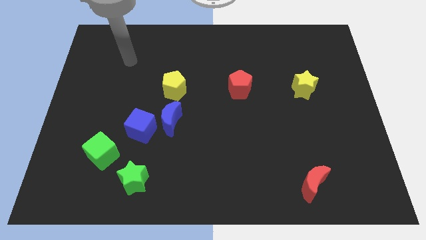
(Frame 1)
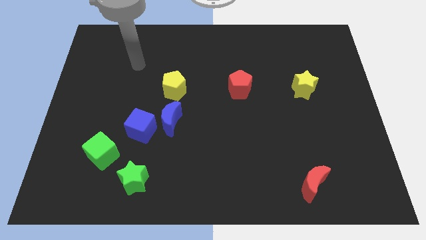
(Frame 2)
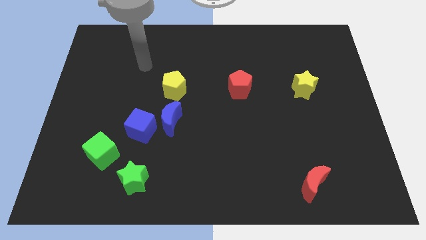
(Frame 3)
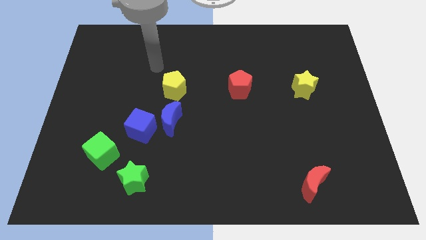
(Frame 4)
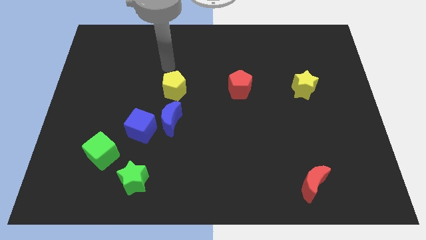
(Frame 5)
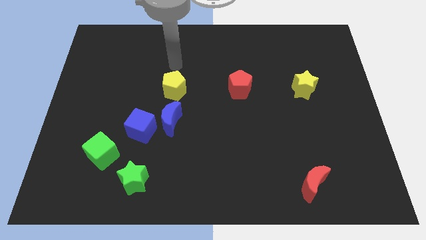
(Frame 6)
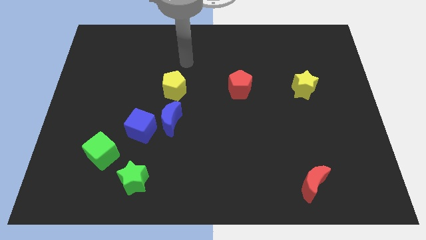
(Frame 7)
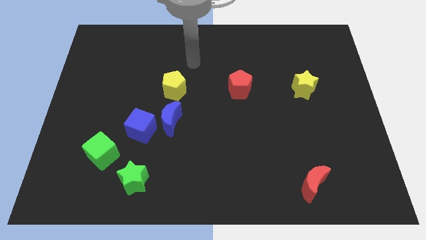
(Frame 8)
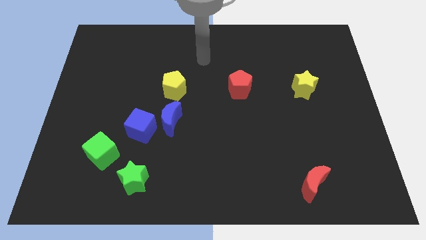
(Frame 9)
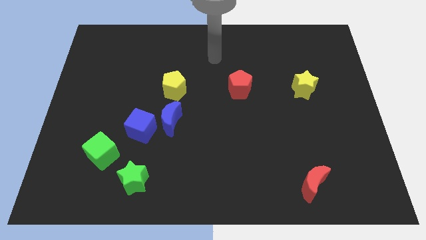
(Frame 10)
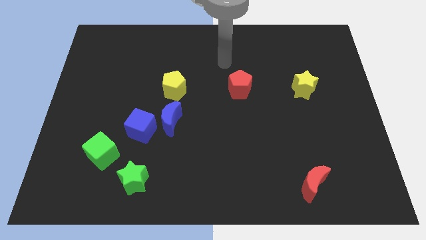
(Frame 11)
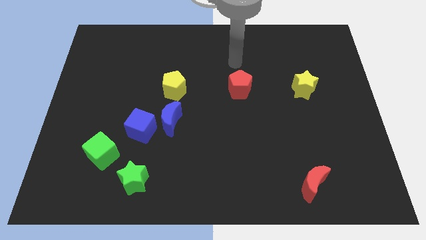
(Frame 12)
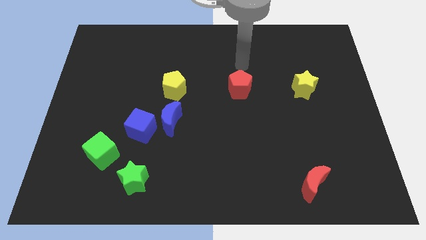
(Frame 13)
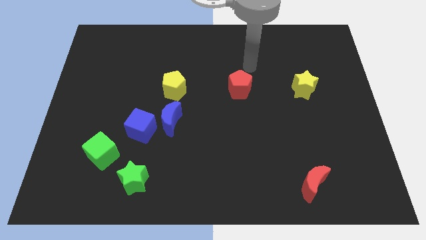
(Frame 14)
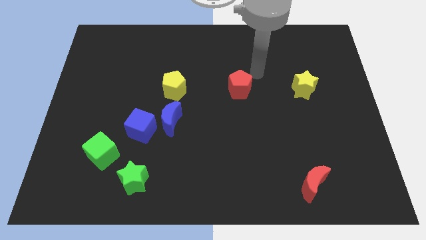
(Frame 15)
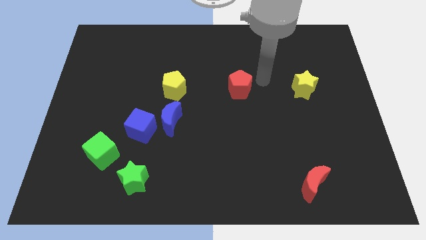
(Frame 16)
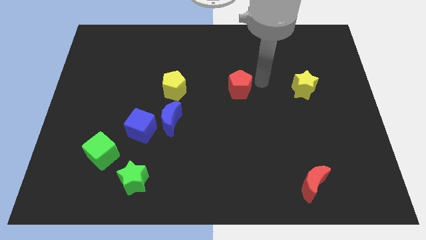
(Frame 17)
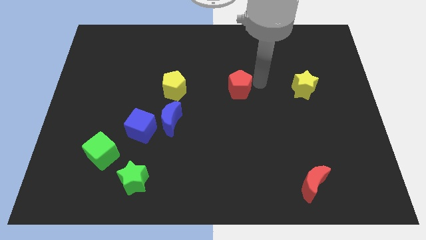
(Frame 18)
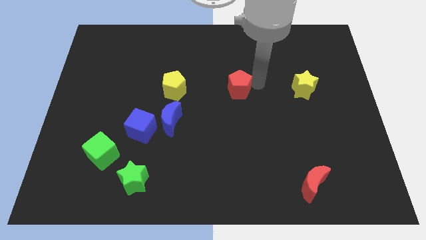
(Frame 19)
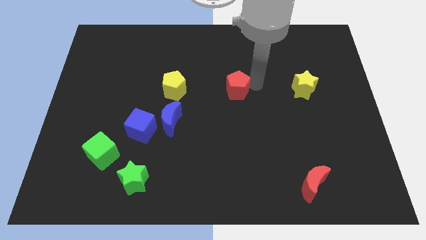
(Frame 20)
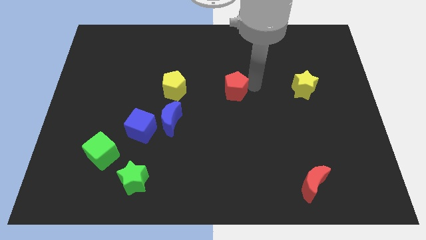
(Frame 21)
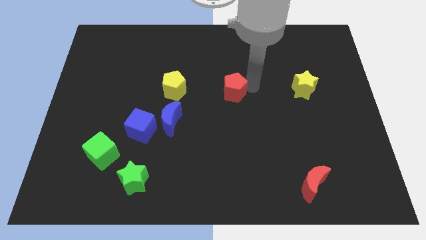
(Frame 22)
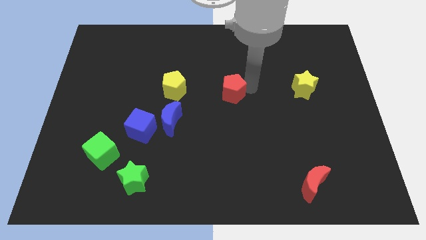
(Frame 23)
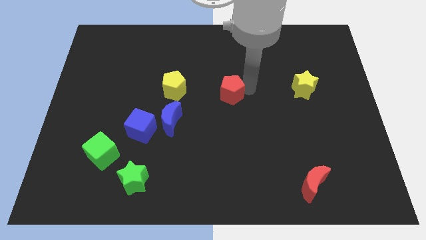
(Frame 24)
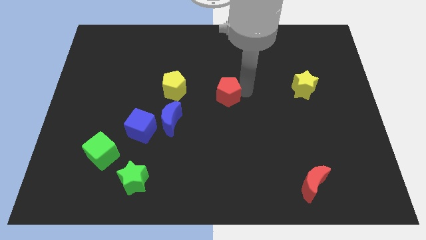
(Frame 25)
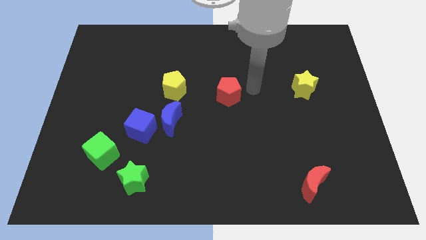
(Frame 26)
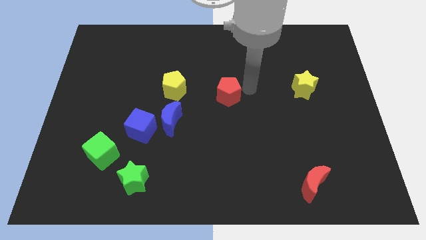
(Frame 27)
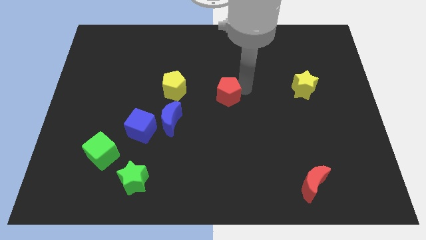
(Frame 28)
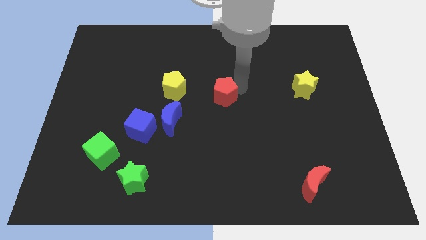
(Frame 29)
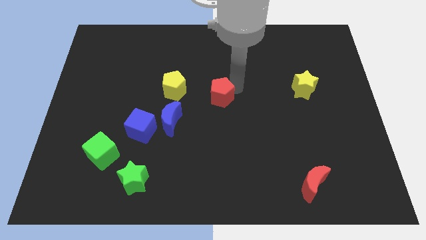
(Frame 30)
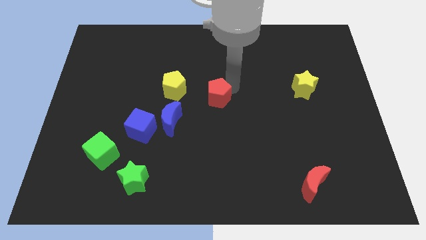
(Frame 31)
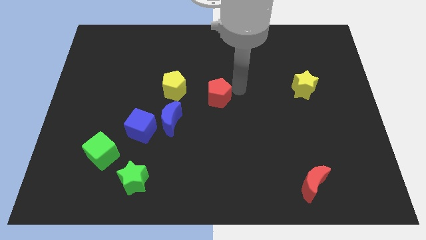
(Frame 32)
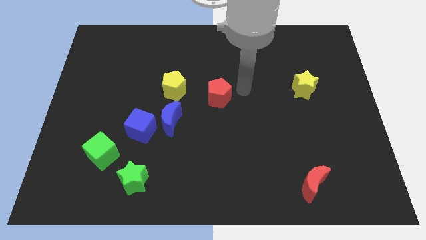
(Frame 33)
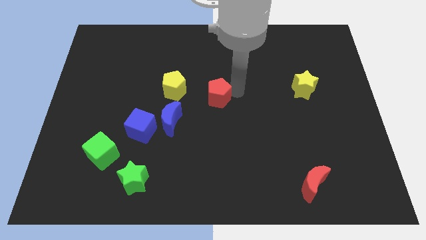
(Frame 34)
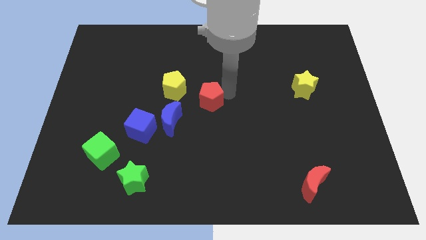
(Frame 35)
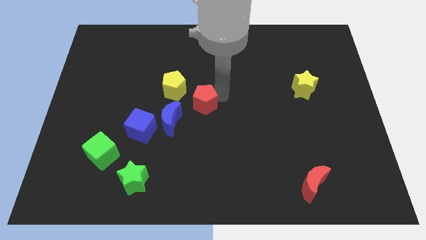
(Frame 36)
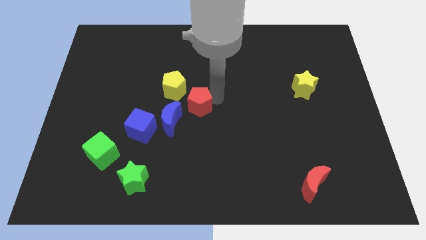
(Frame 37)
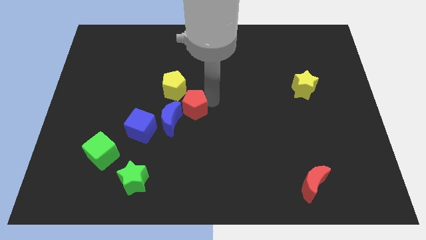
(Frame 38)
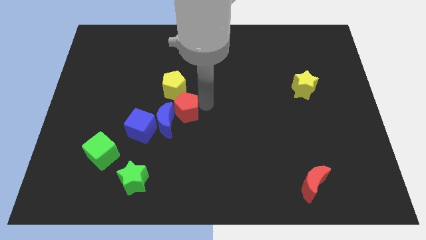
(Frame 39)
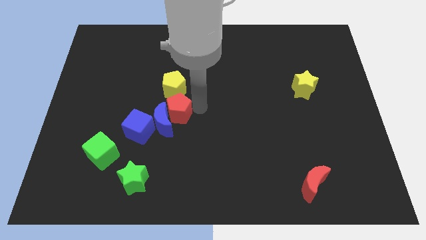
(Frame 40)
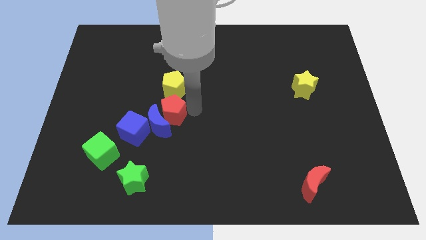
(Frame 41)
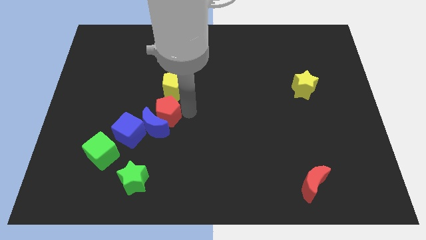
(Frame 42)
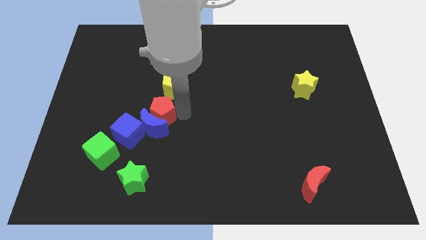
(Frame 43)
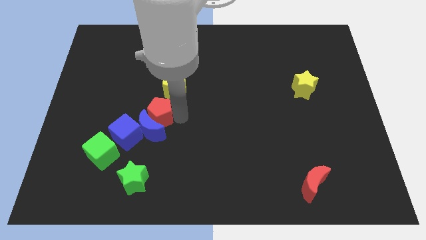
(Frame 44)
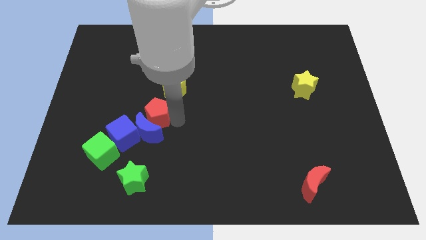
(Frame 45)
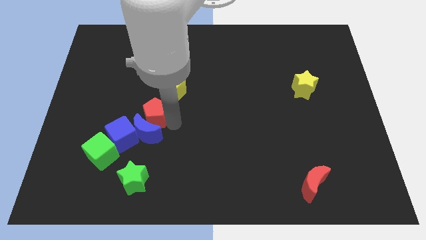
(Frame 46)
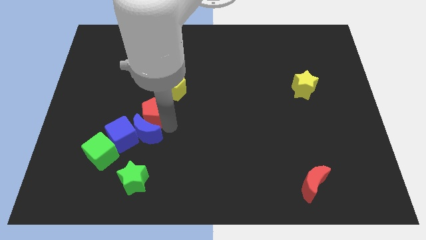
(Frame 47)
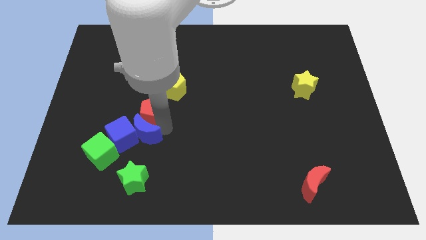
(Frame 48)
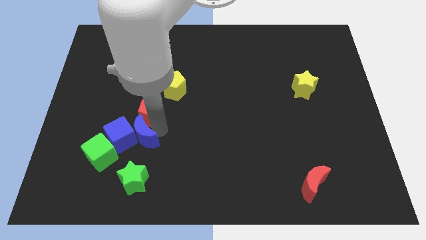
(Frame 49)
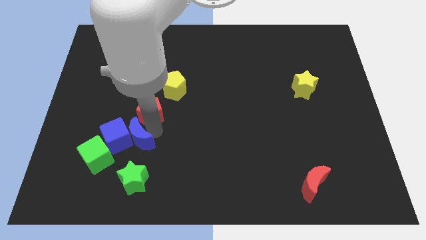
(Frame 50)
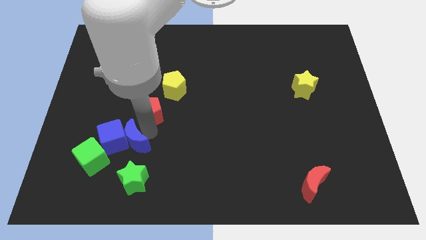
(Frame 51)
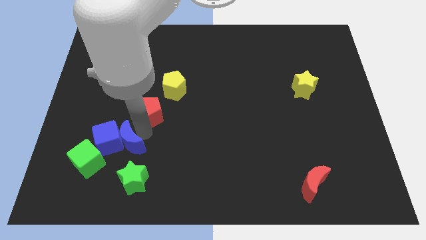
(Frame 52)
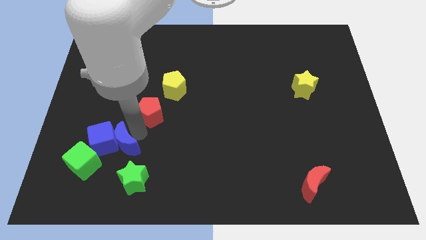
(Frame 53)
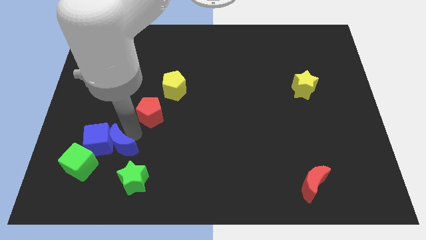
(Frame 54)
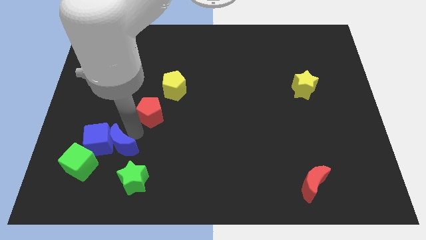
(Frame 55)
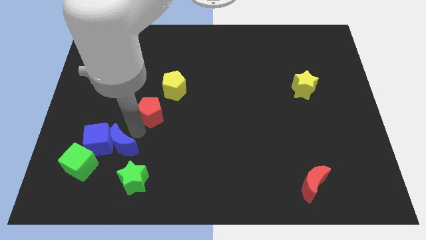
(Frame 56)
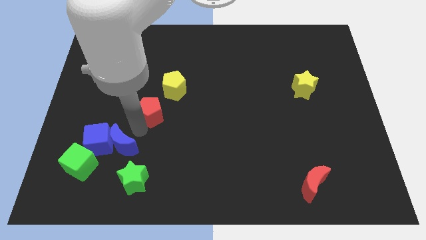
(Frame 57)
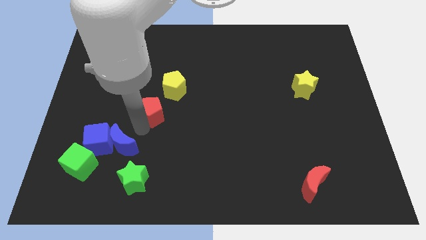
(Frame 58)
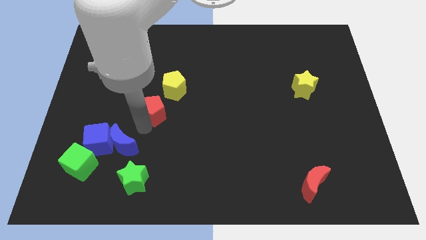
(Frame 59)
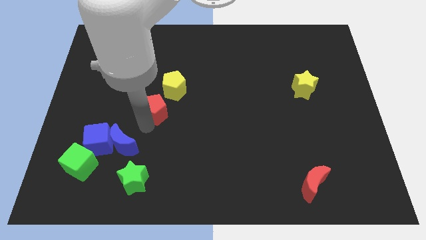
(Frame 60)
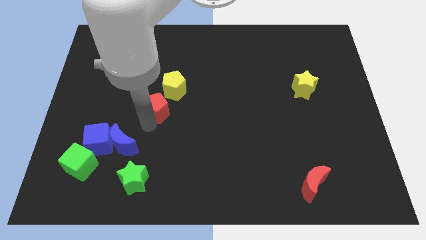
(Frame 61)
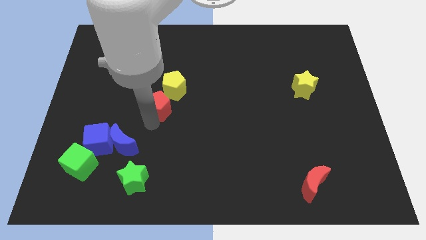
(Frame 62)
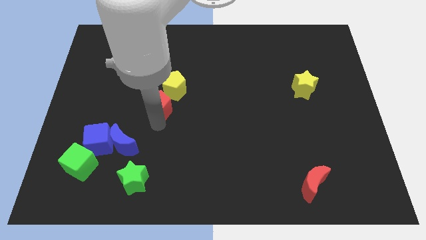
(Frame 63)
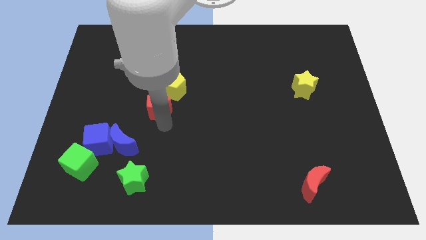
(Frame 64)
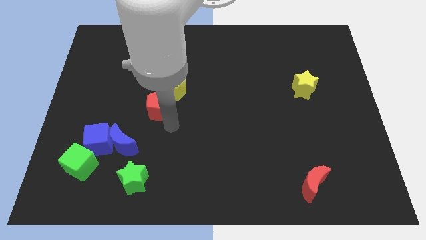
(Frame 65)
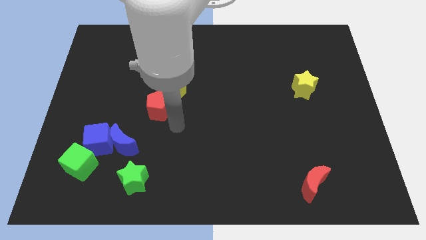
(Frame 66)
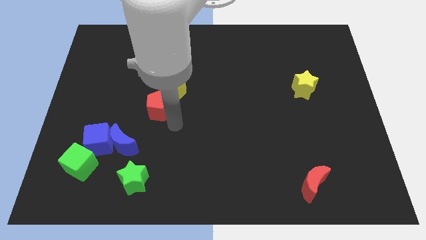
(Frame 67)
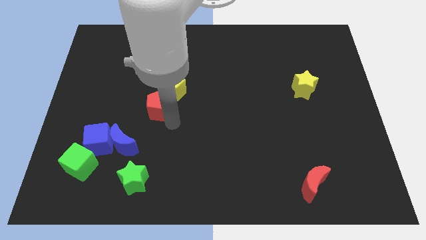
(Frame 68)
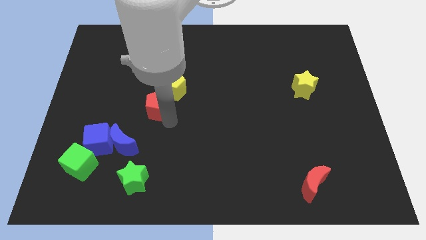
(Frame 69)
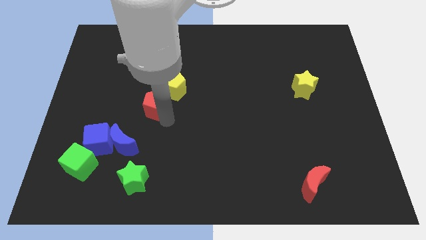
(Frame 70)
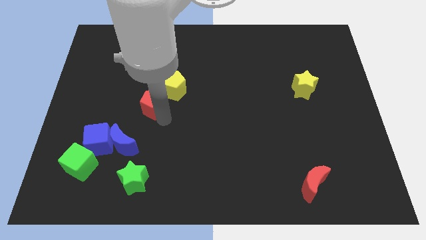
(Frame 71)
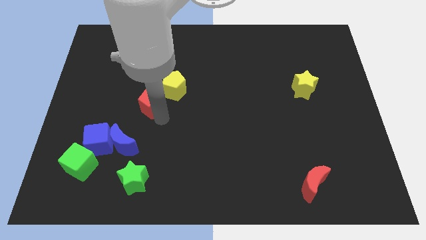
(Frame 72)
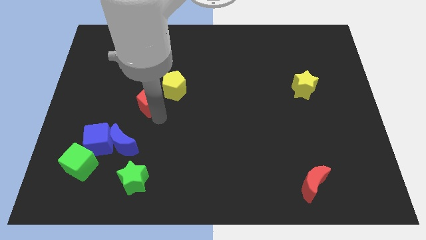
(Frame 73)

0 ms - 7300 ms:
push the red pentagon to the left

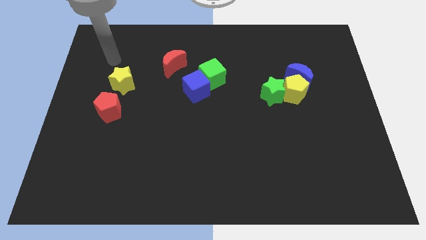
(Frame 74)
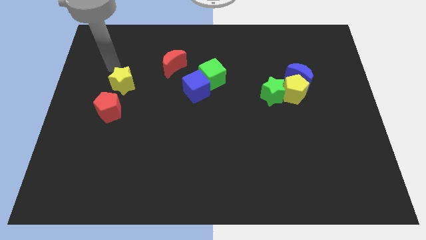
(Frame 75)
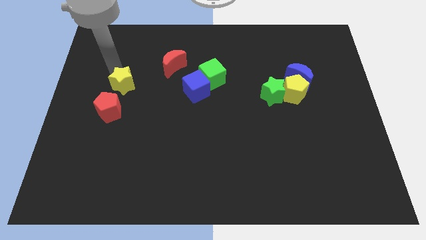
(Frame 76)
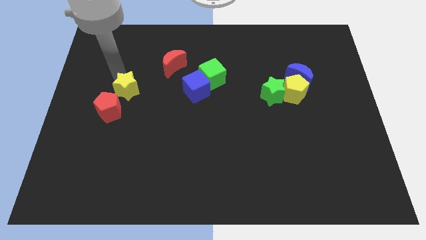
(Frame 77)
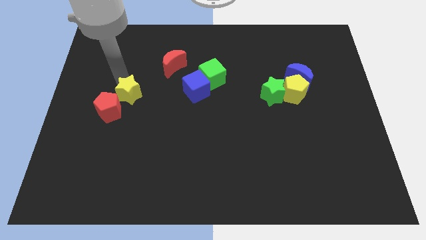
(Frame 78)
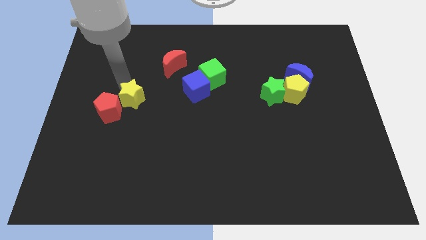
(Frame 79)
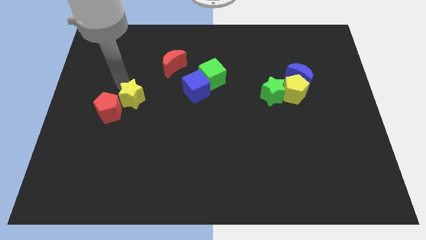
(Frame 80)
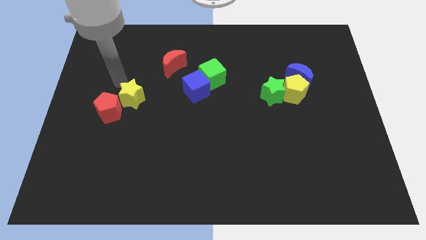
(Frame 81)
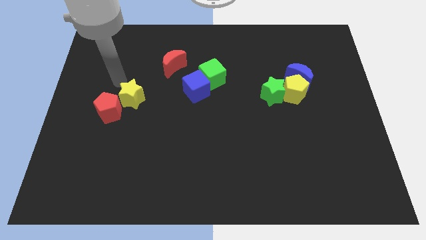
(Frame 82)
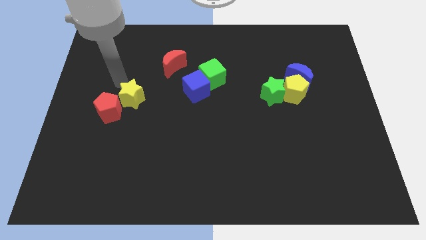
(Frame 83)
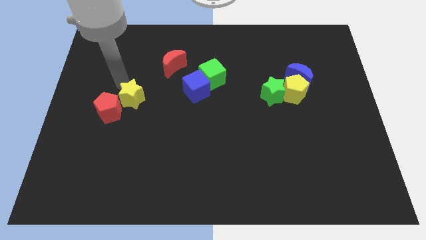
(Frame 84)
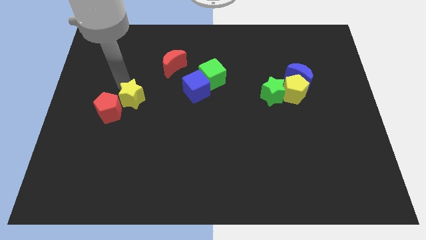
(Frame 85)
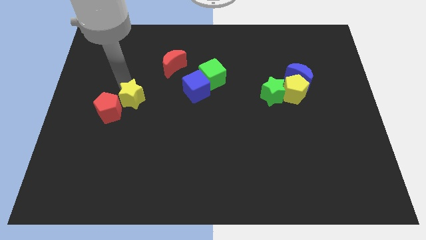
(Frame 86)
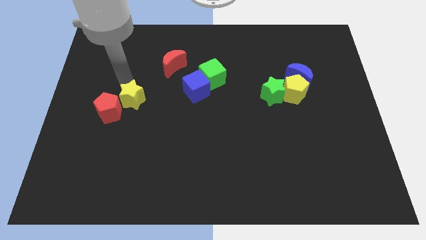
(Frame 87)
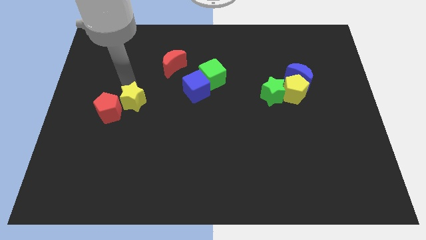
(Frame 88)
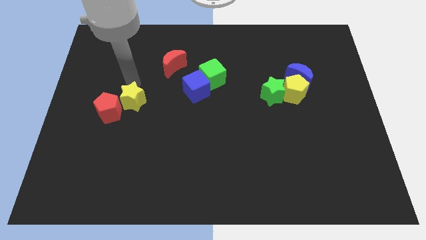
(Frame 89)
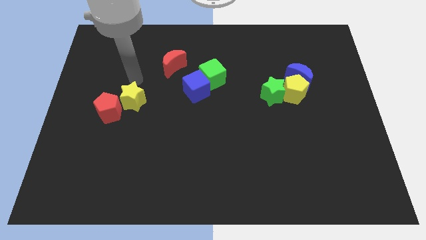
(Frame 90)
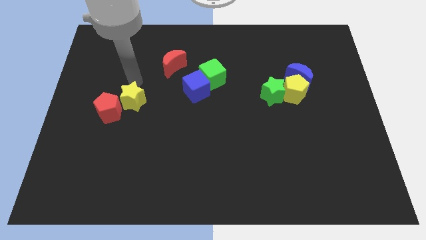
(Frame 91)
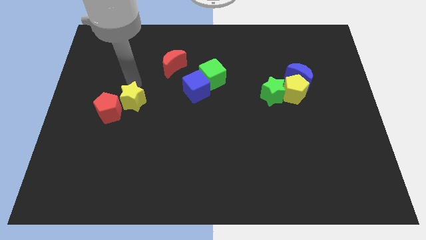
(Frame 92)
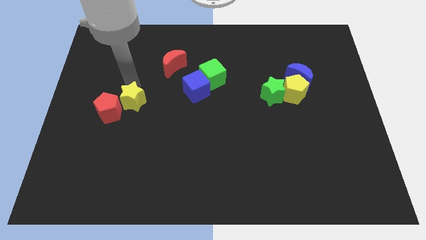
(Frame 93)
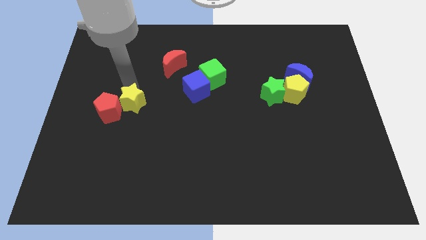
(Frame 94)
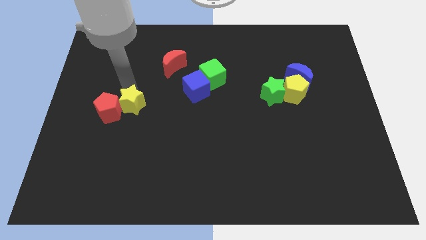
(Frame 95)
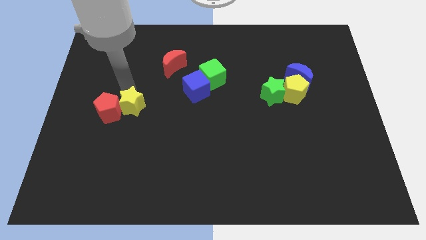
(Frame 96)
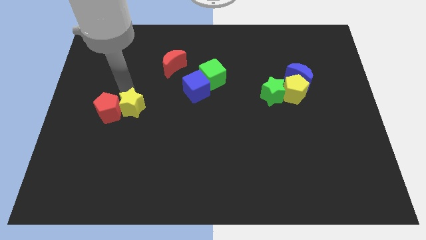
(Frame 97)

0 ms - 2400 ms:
push the yellow star slightly down
